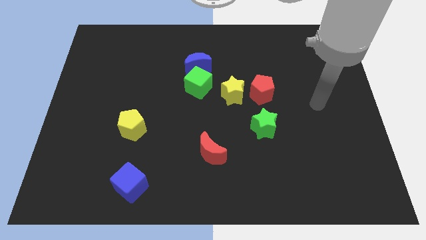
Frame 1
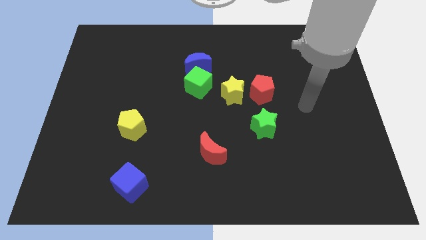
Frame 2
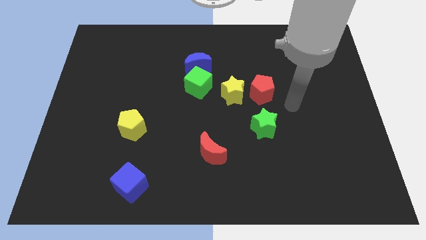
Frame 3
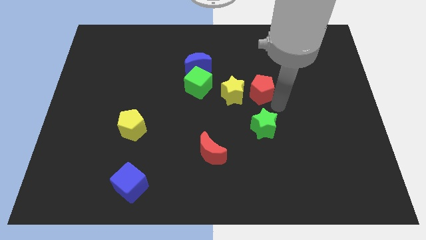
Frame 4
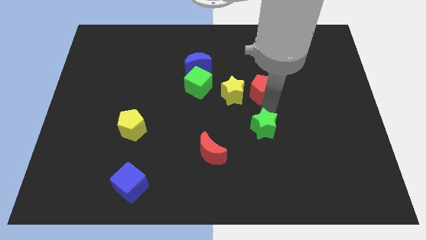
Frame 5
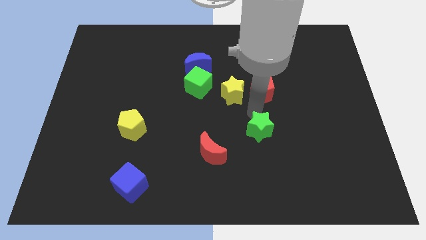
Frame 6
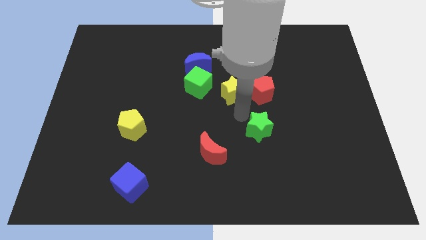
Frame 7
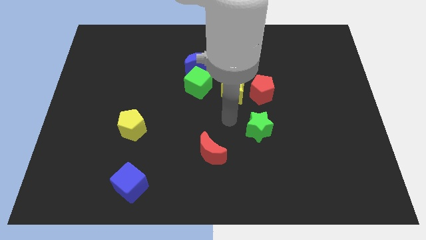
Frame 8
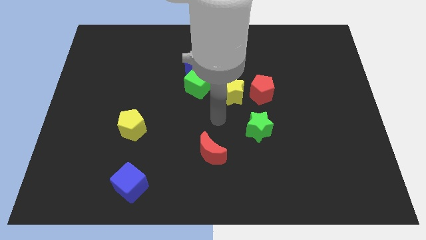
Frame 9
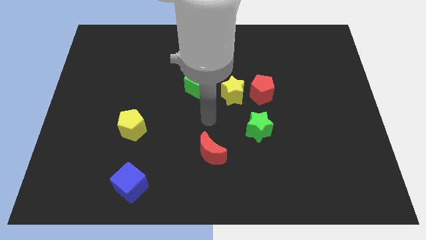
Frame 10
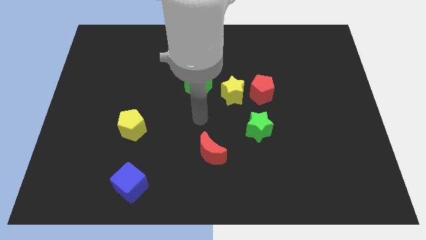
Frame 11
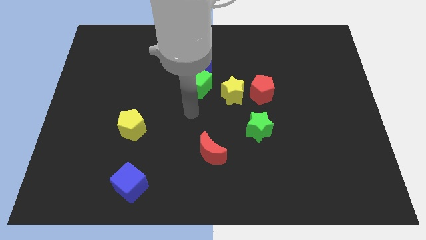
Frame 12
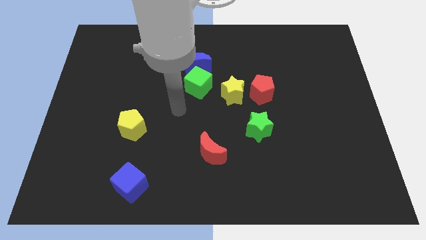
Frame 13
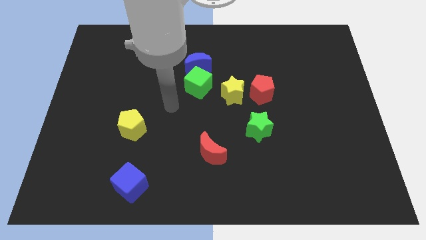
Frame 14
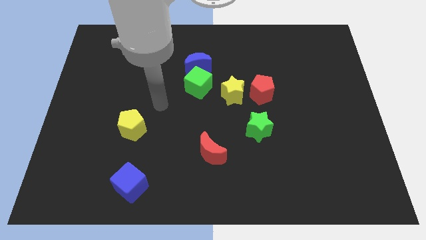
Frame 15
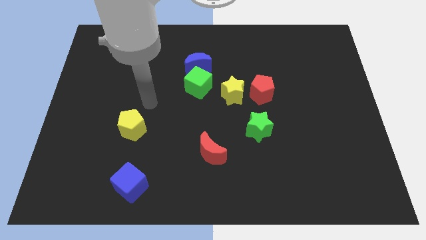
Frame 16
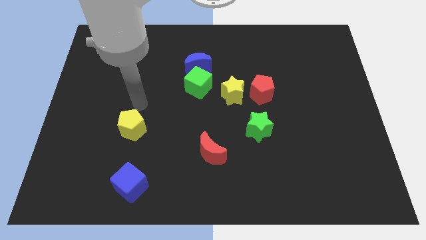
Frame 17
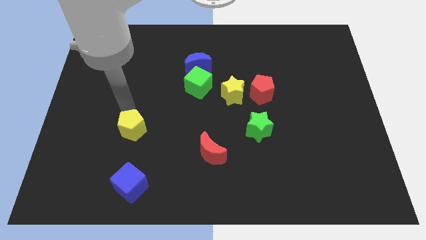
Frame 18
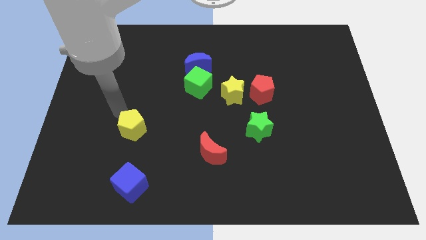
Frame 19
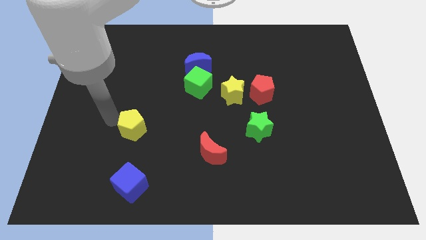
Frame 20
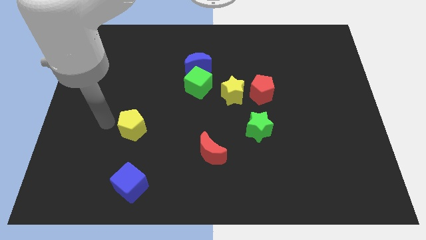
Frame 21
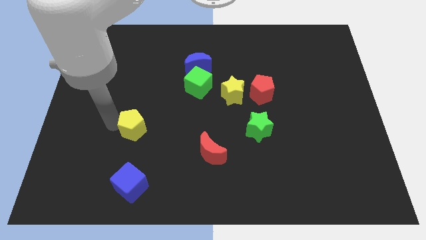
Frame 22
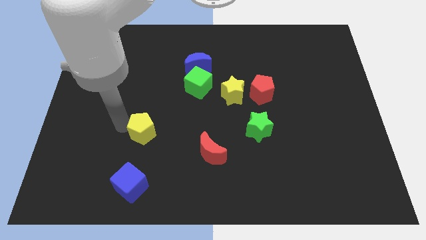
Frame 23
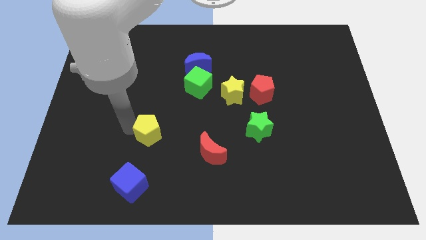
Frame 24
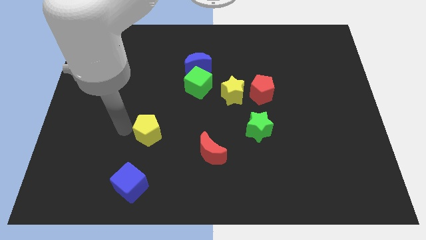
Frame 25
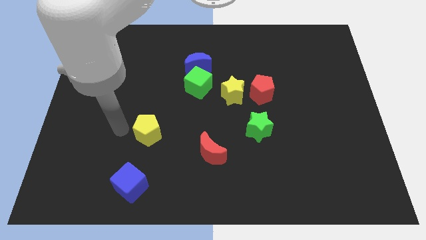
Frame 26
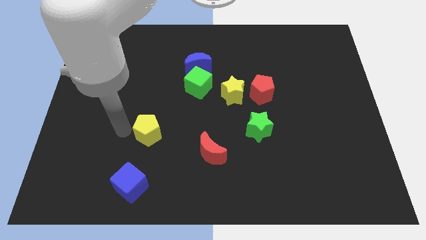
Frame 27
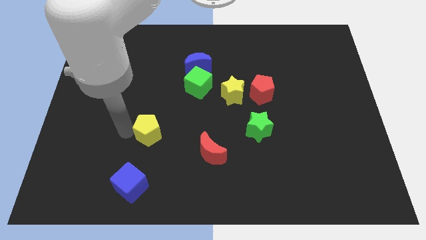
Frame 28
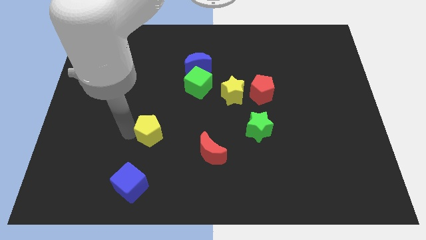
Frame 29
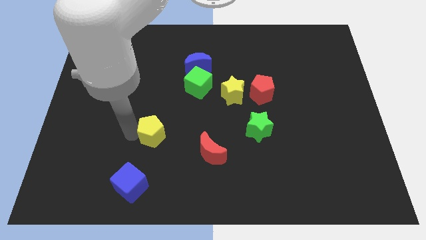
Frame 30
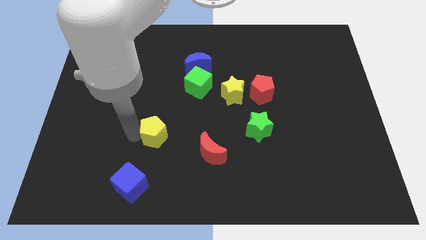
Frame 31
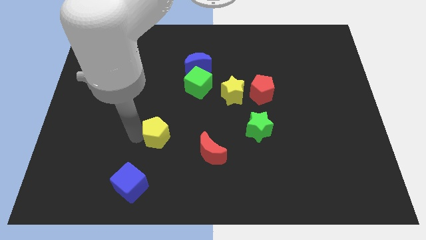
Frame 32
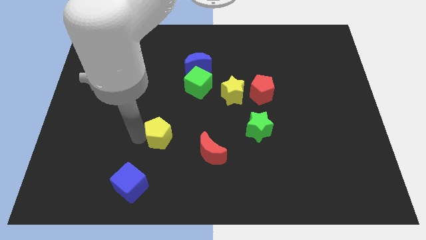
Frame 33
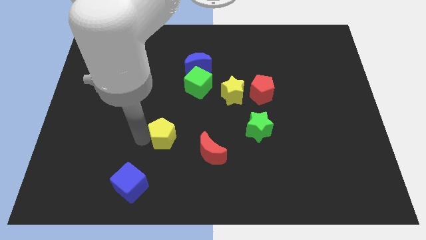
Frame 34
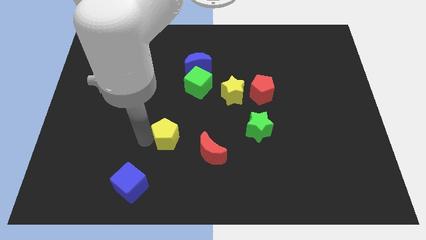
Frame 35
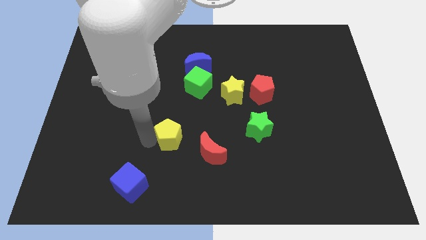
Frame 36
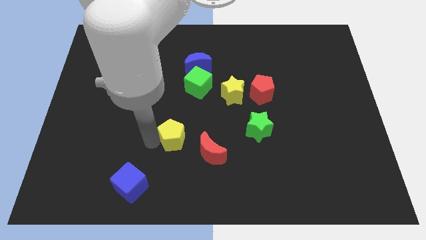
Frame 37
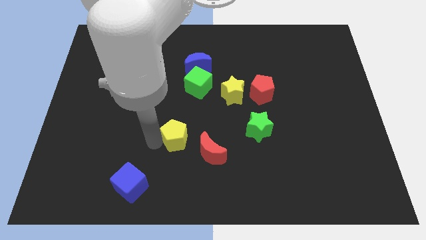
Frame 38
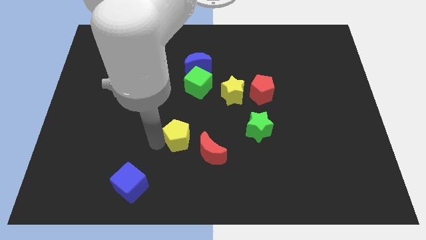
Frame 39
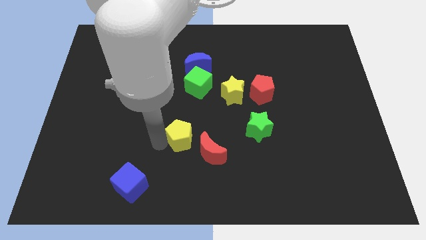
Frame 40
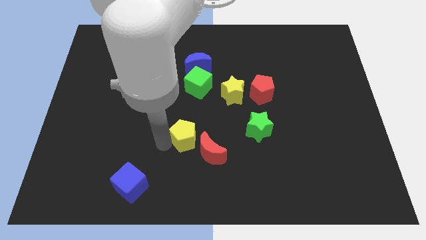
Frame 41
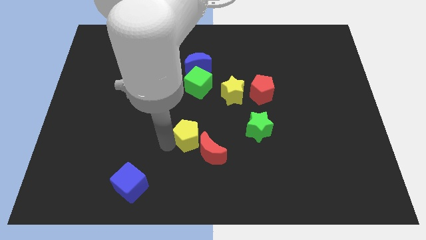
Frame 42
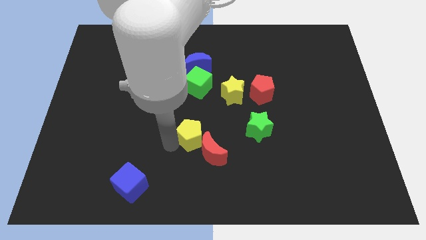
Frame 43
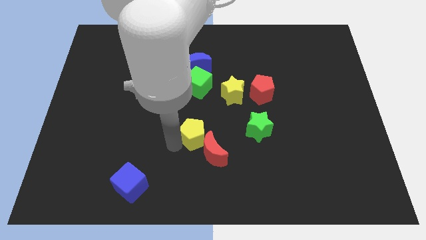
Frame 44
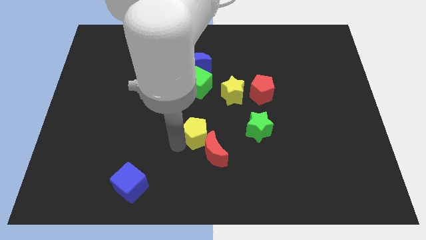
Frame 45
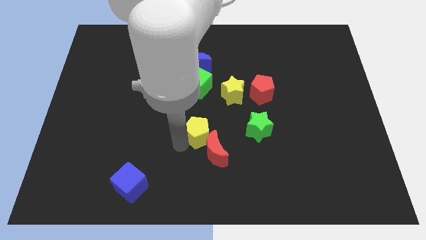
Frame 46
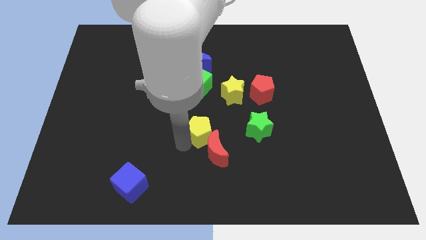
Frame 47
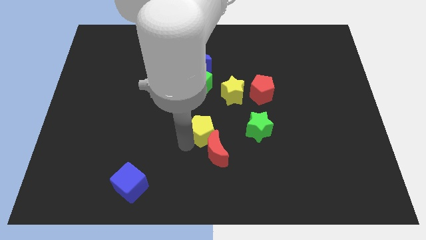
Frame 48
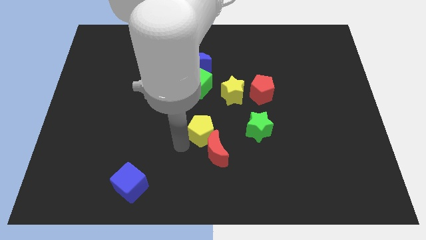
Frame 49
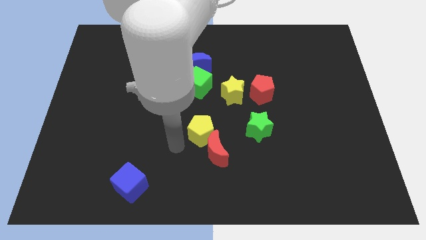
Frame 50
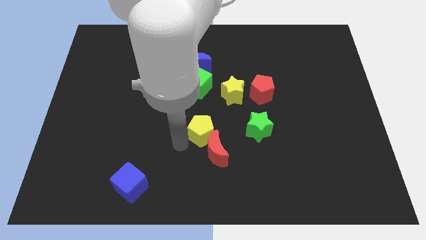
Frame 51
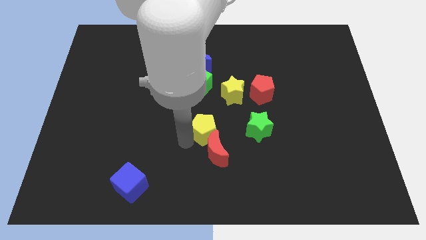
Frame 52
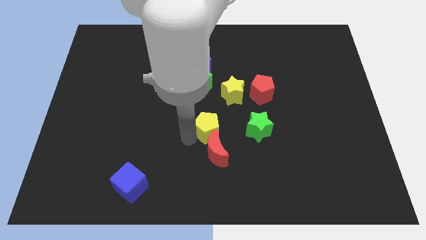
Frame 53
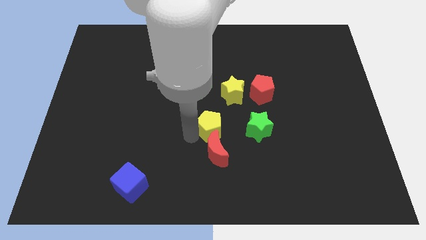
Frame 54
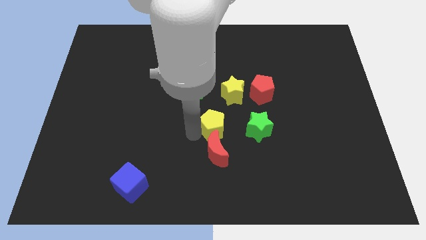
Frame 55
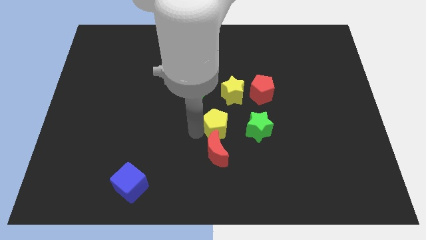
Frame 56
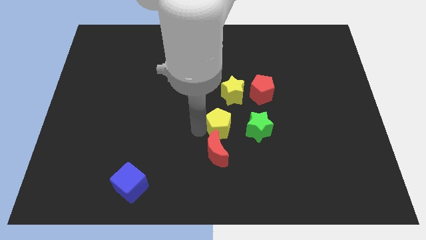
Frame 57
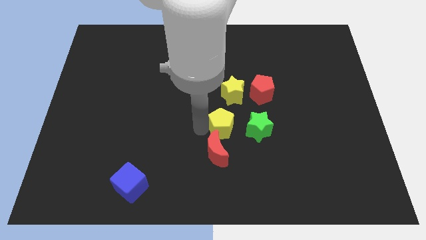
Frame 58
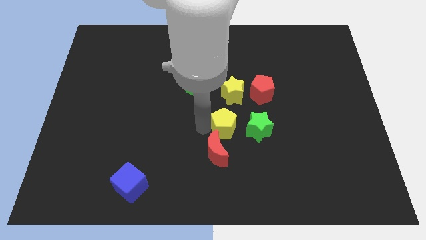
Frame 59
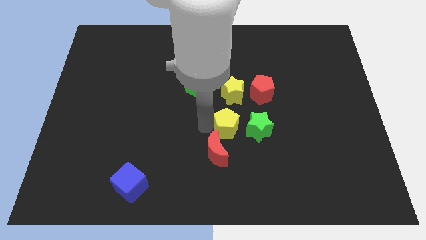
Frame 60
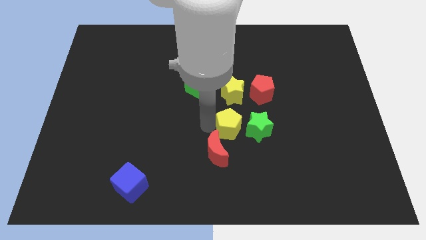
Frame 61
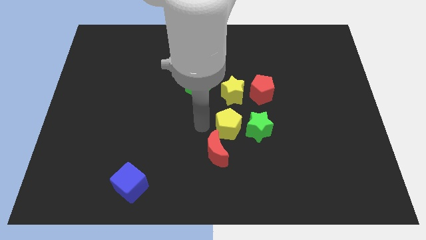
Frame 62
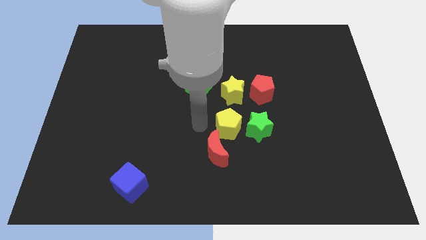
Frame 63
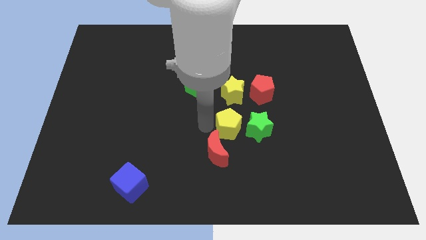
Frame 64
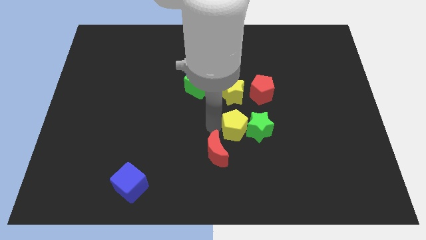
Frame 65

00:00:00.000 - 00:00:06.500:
move the yellow pentagon next to the green star
